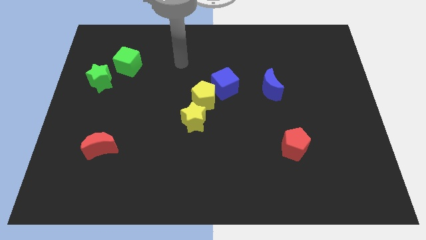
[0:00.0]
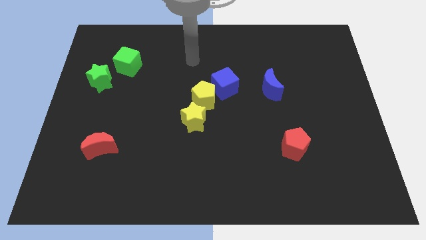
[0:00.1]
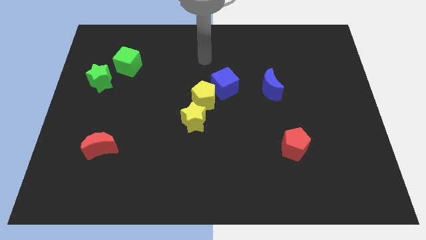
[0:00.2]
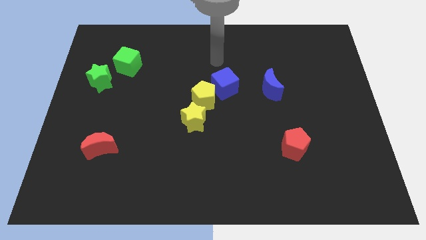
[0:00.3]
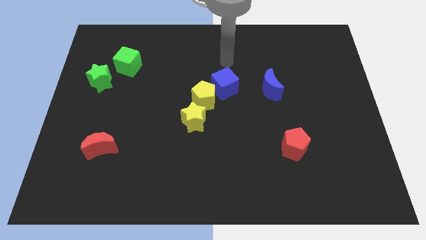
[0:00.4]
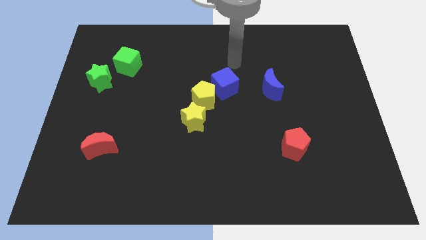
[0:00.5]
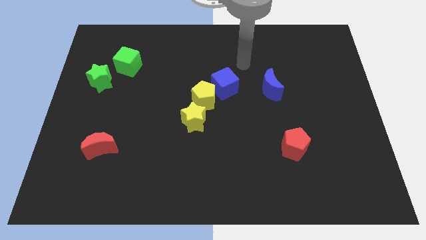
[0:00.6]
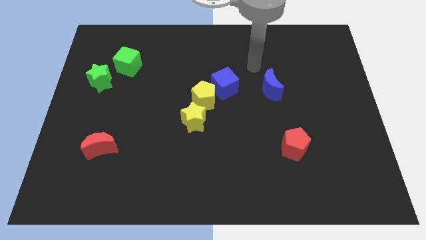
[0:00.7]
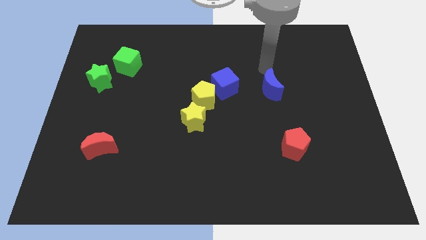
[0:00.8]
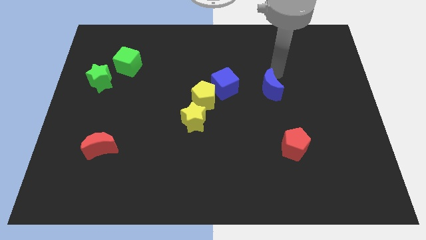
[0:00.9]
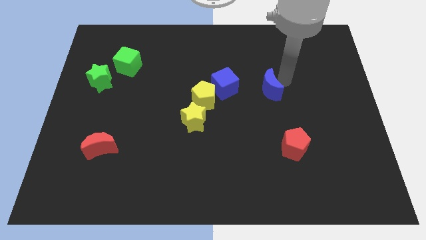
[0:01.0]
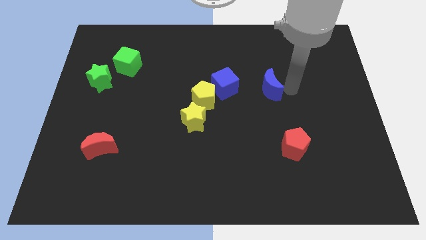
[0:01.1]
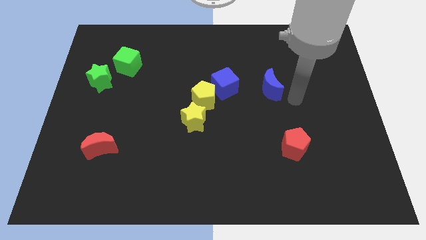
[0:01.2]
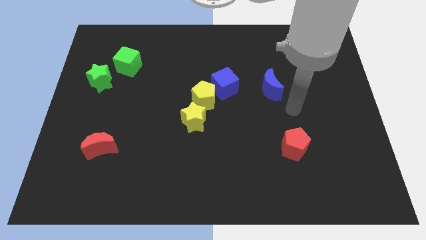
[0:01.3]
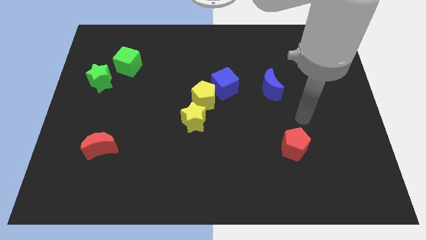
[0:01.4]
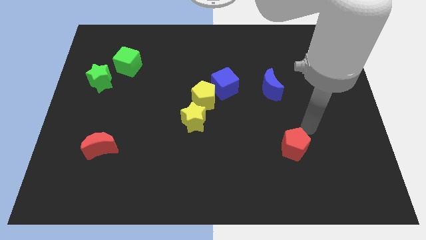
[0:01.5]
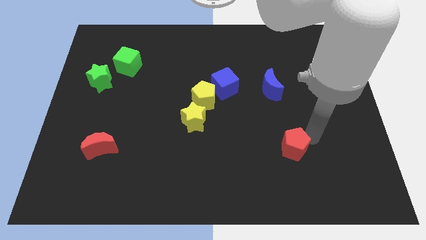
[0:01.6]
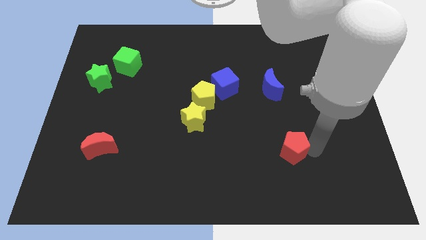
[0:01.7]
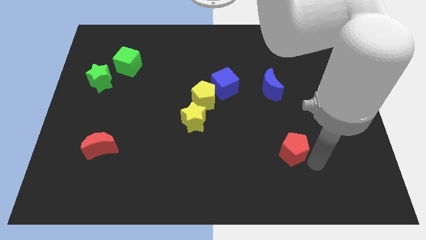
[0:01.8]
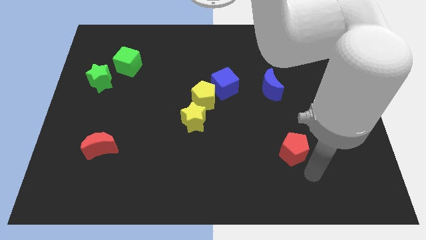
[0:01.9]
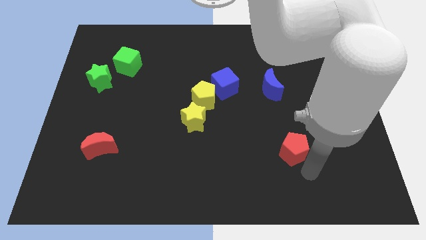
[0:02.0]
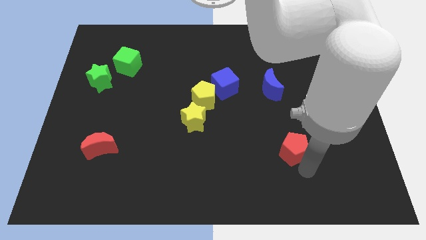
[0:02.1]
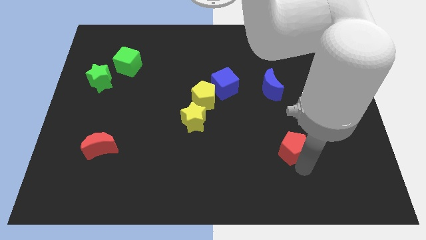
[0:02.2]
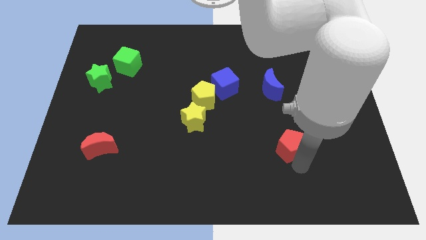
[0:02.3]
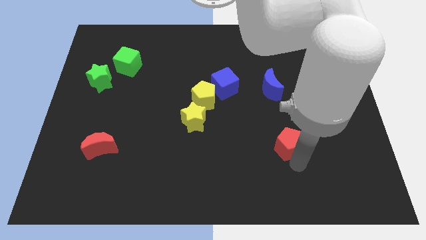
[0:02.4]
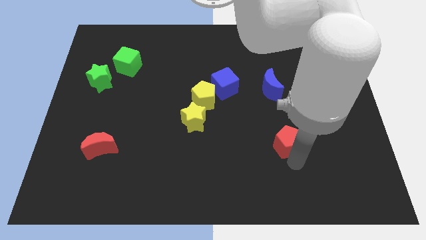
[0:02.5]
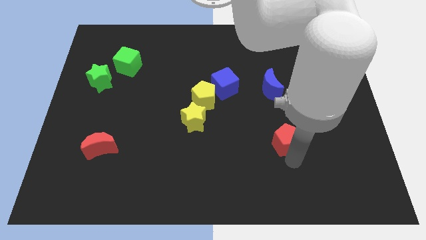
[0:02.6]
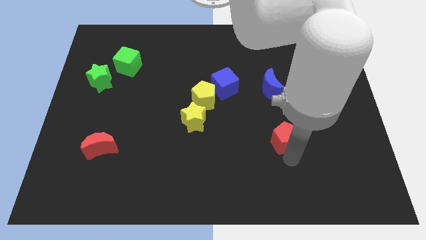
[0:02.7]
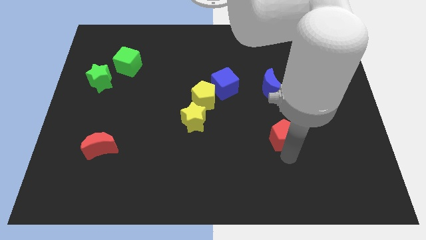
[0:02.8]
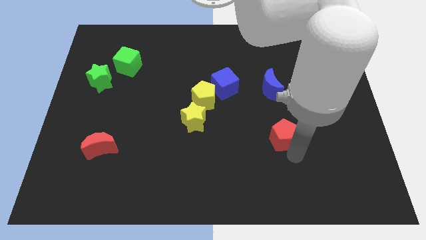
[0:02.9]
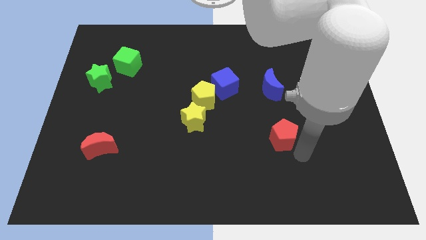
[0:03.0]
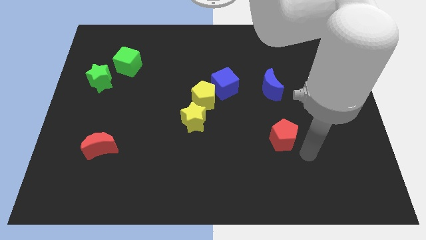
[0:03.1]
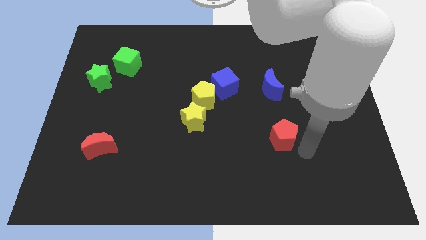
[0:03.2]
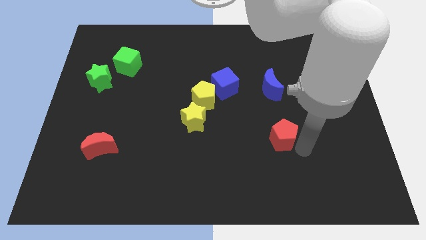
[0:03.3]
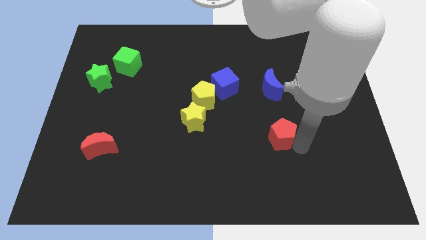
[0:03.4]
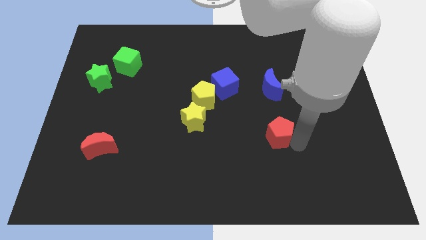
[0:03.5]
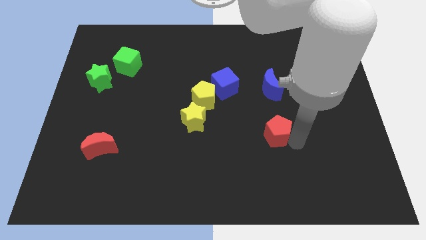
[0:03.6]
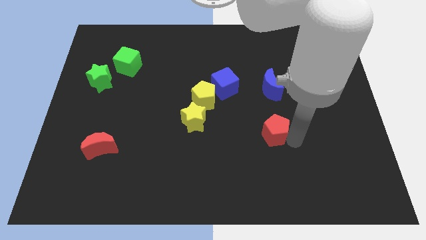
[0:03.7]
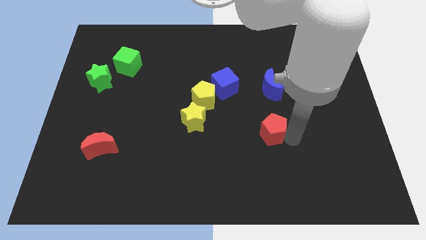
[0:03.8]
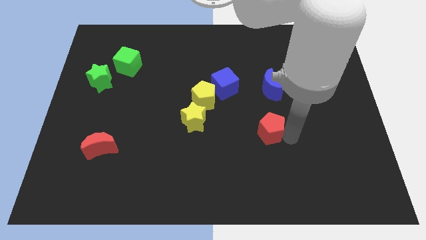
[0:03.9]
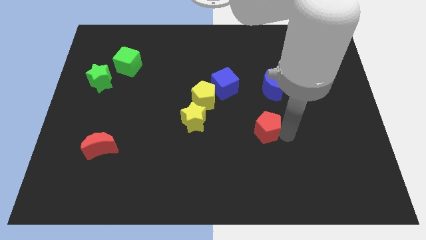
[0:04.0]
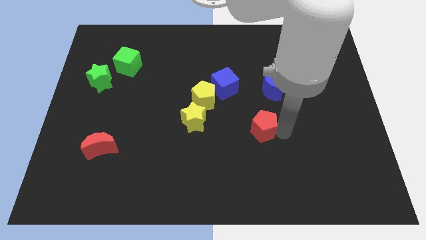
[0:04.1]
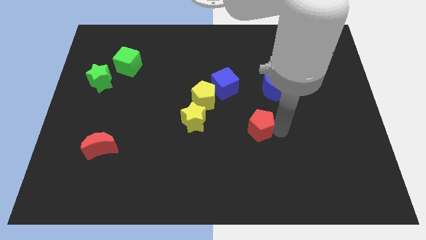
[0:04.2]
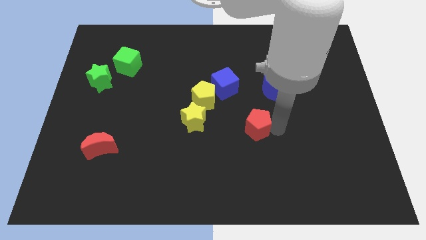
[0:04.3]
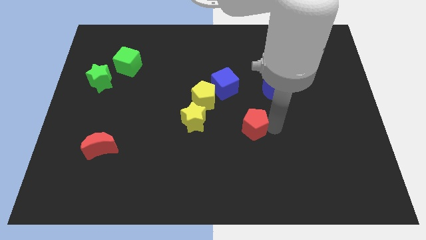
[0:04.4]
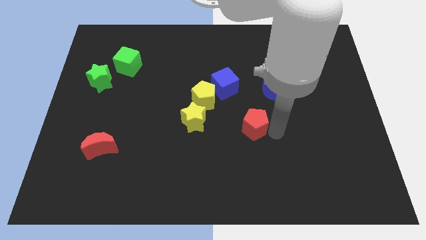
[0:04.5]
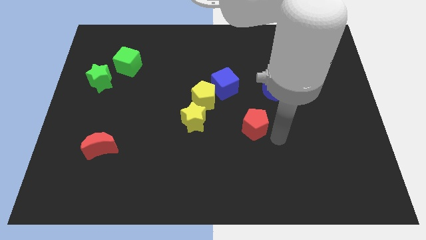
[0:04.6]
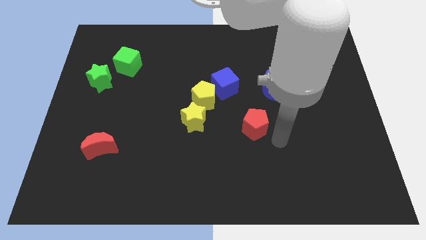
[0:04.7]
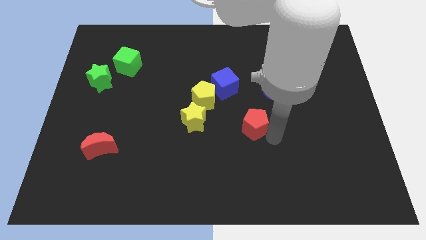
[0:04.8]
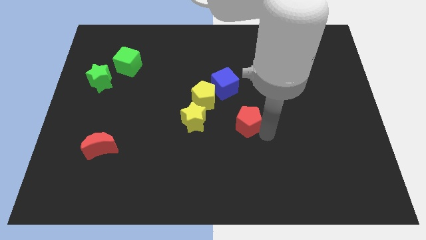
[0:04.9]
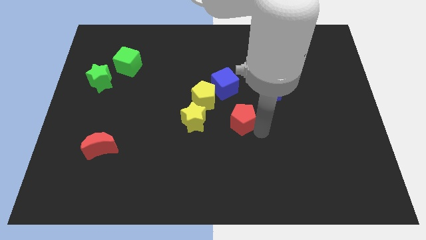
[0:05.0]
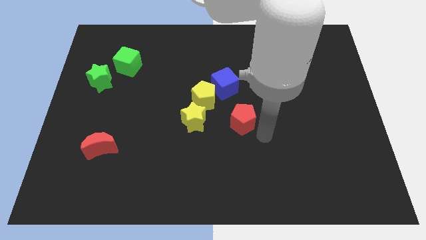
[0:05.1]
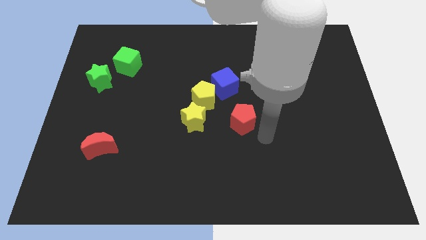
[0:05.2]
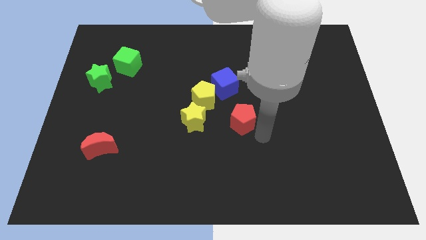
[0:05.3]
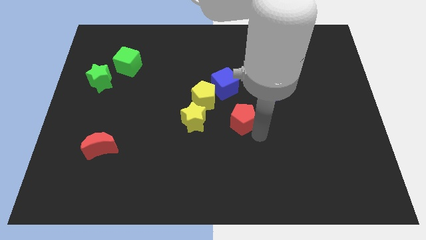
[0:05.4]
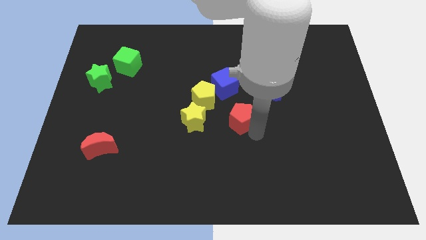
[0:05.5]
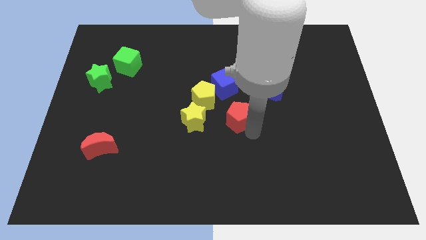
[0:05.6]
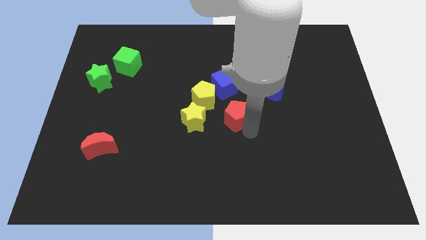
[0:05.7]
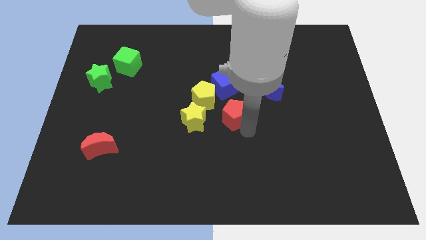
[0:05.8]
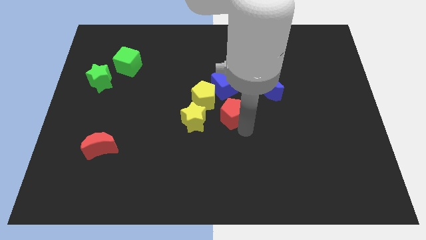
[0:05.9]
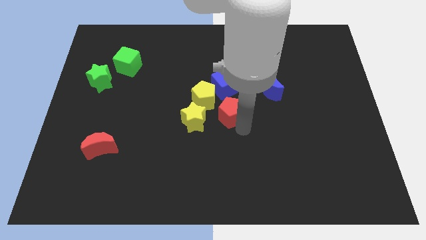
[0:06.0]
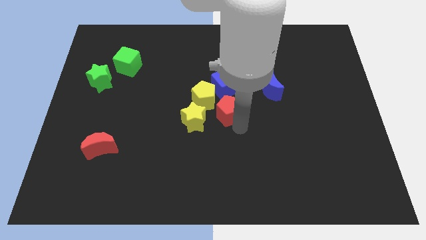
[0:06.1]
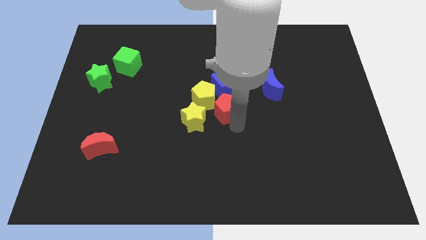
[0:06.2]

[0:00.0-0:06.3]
push the red pentagon close to the yellow pentagon
